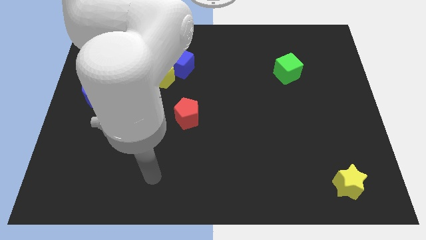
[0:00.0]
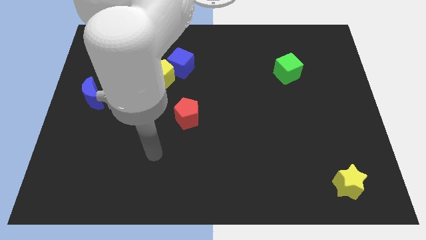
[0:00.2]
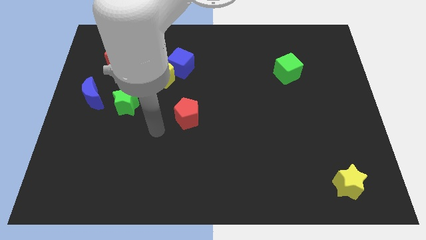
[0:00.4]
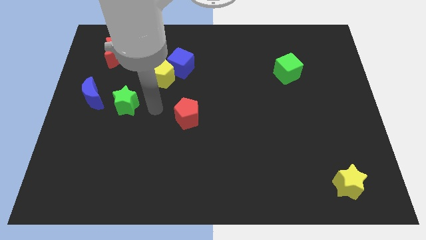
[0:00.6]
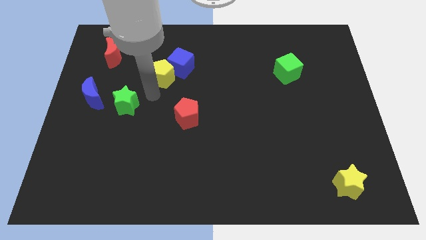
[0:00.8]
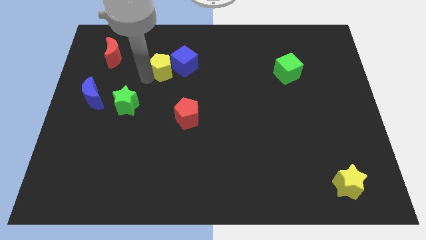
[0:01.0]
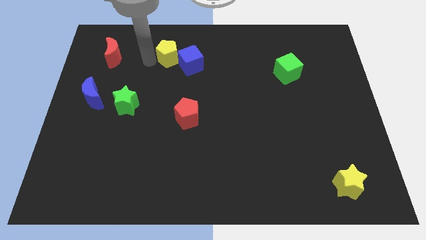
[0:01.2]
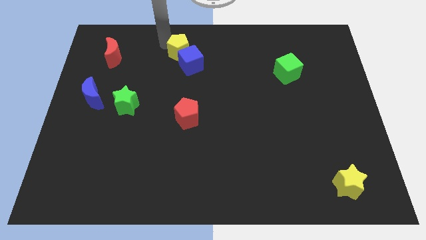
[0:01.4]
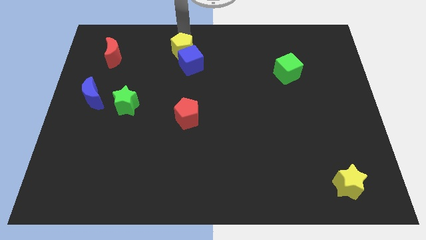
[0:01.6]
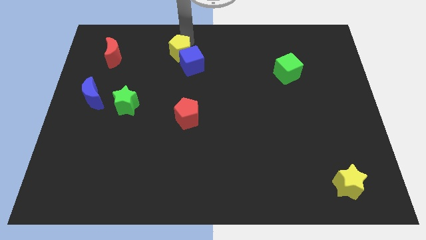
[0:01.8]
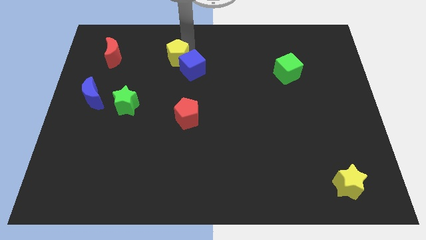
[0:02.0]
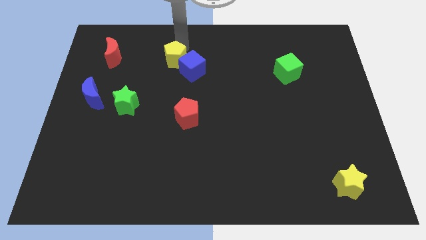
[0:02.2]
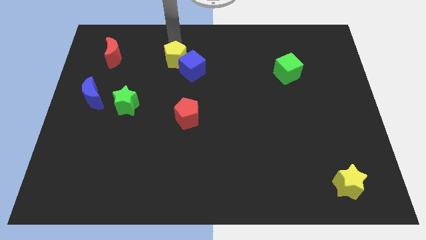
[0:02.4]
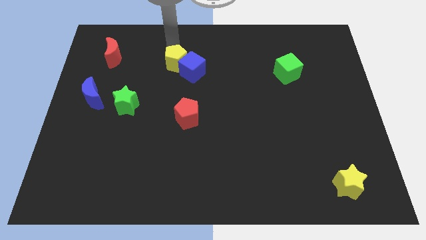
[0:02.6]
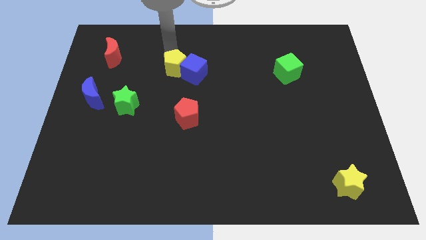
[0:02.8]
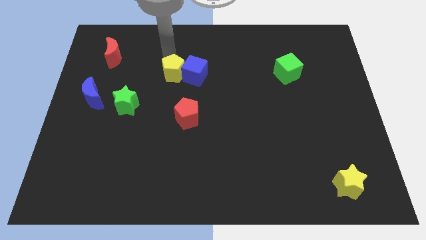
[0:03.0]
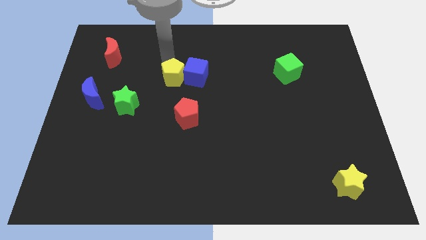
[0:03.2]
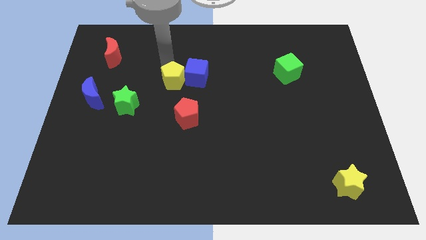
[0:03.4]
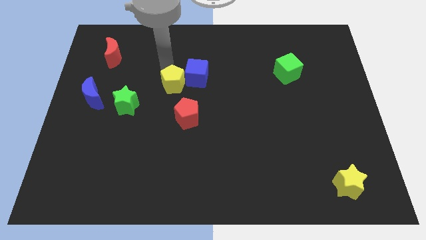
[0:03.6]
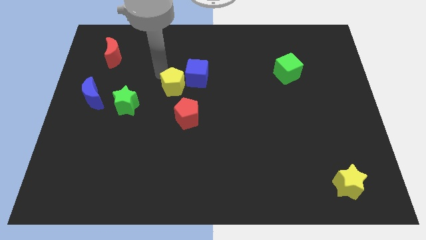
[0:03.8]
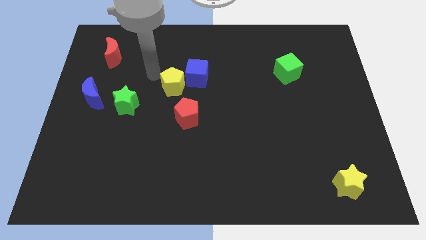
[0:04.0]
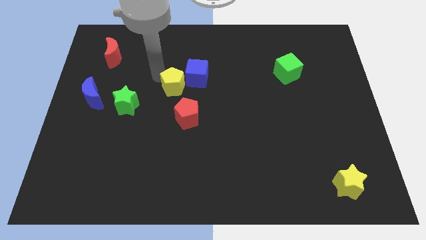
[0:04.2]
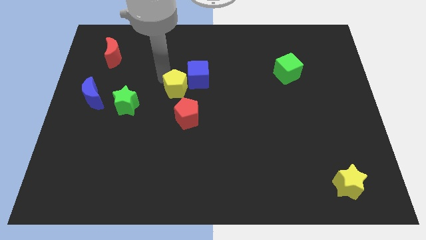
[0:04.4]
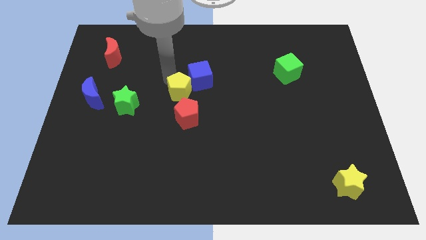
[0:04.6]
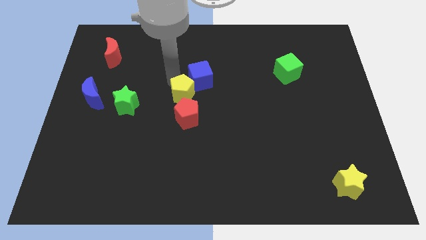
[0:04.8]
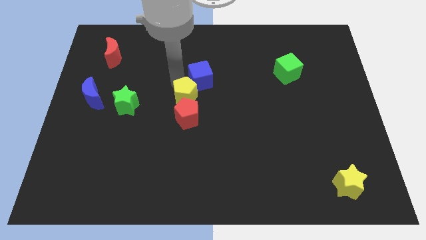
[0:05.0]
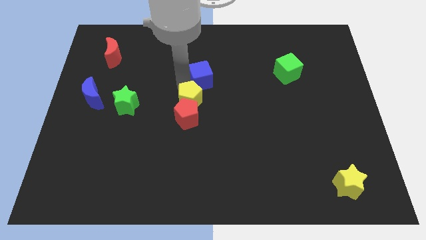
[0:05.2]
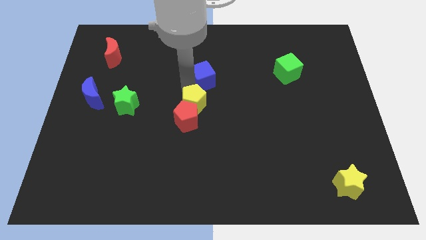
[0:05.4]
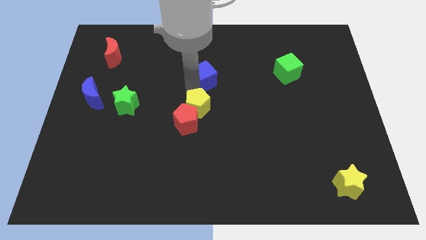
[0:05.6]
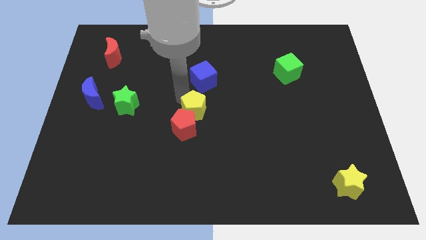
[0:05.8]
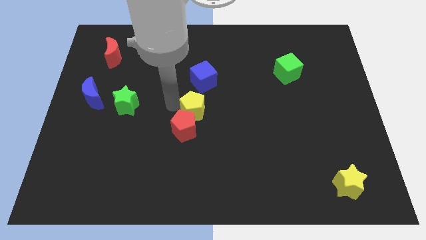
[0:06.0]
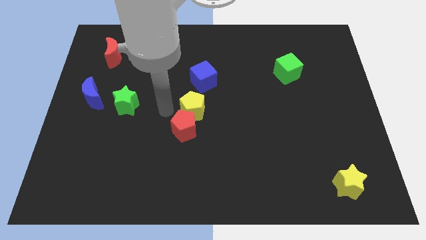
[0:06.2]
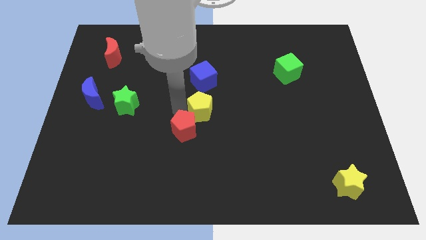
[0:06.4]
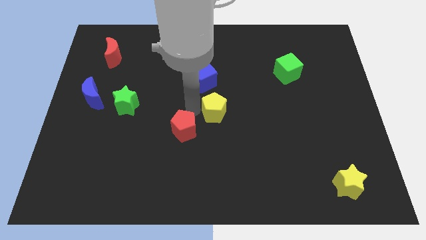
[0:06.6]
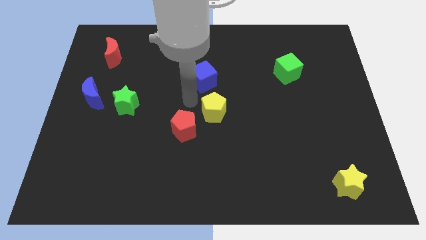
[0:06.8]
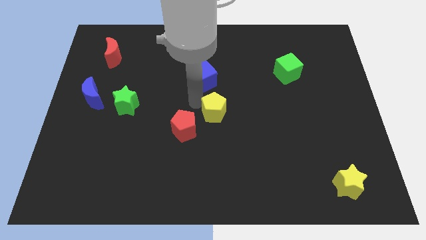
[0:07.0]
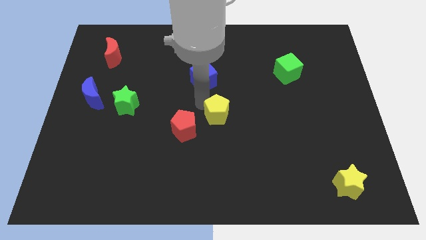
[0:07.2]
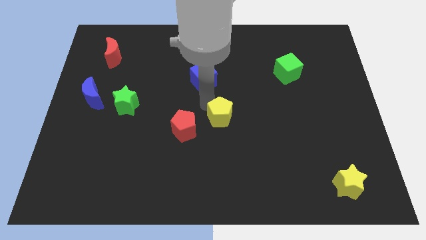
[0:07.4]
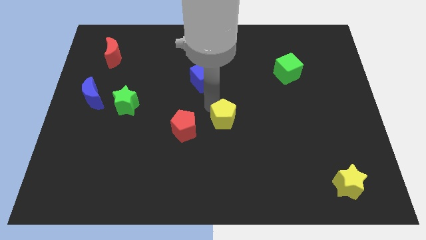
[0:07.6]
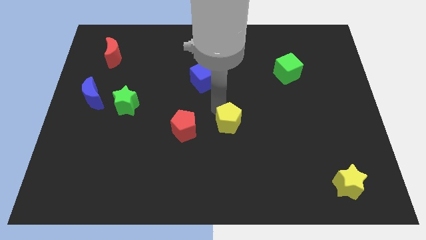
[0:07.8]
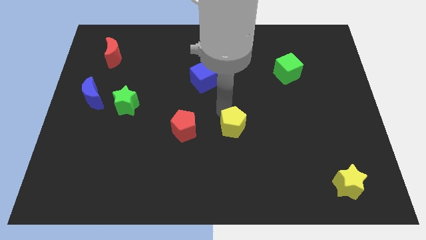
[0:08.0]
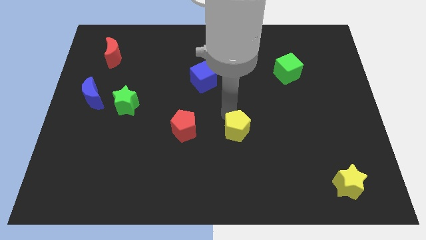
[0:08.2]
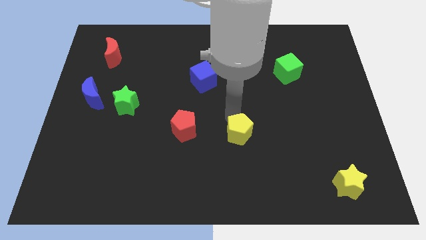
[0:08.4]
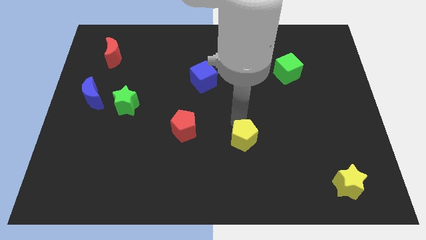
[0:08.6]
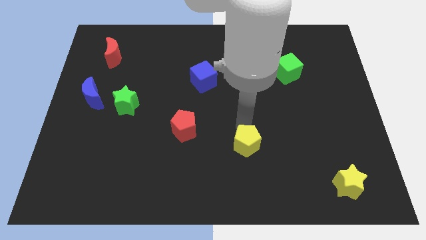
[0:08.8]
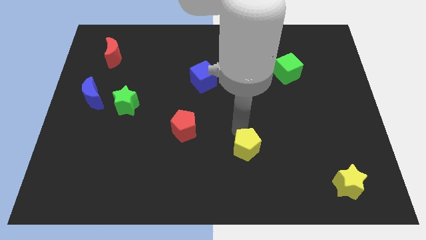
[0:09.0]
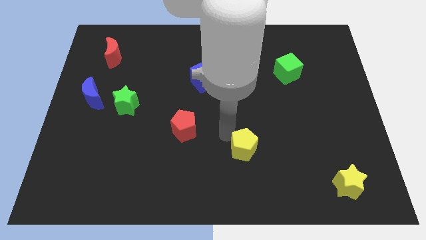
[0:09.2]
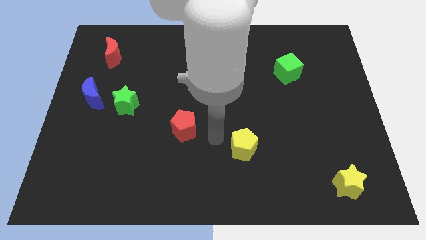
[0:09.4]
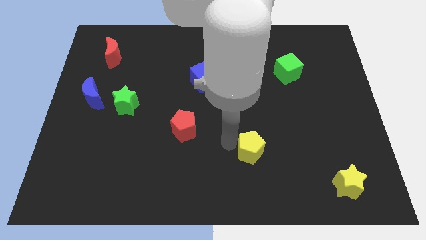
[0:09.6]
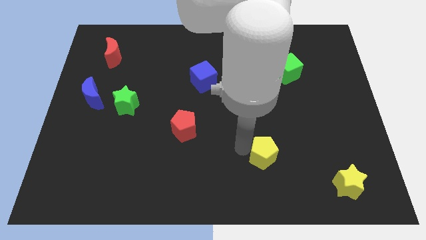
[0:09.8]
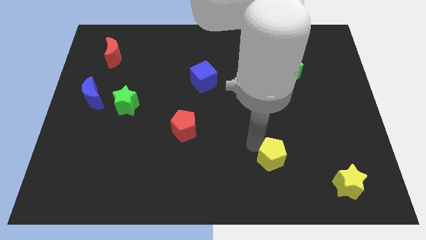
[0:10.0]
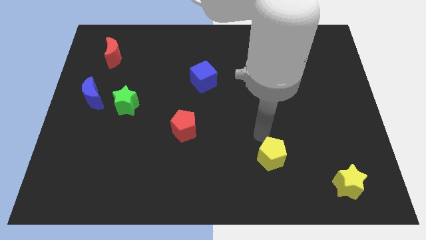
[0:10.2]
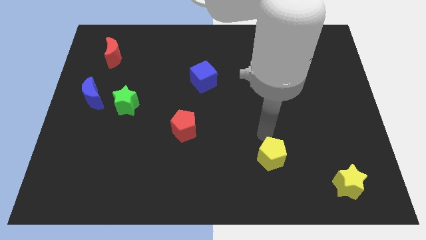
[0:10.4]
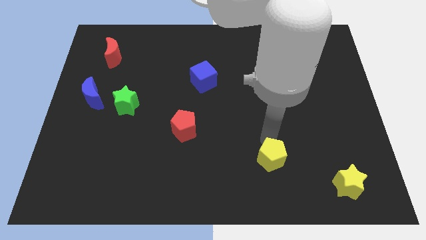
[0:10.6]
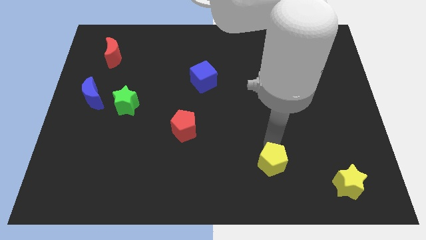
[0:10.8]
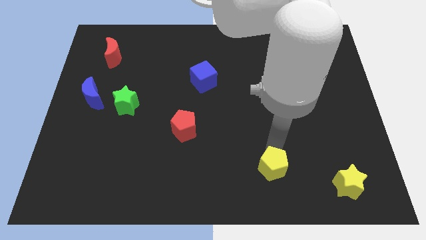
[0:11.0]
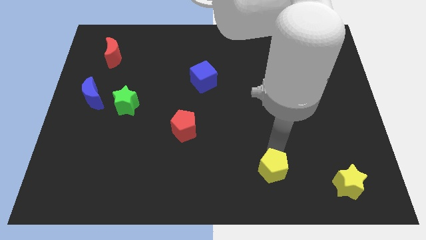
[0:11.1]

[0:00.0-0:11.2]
put the yellow pentagon left of the yellow star

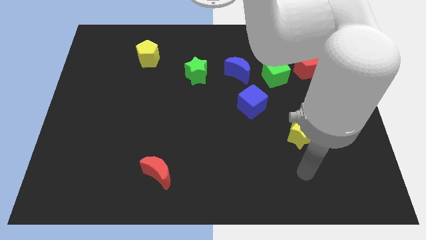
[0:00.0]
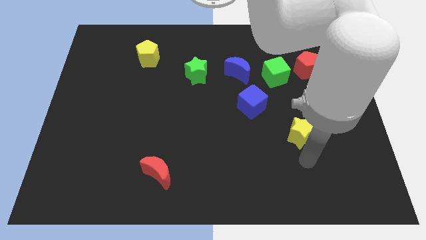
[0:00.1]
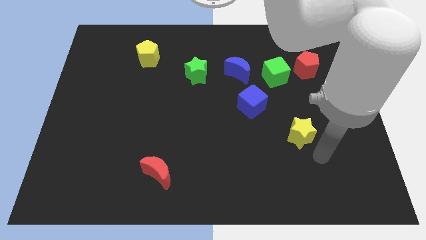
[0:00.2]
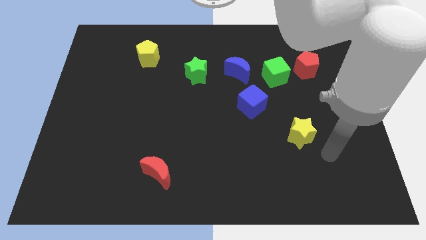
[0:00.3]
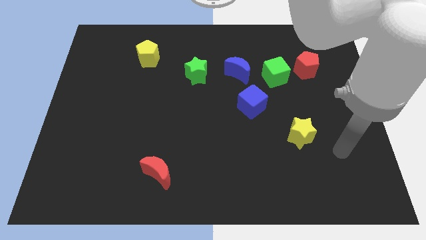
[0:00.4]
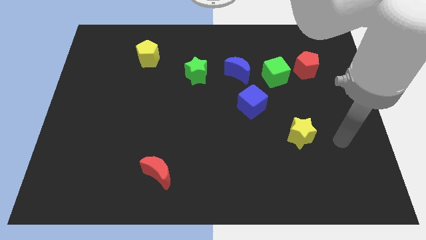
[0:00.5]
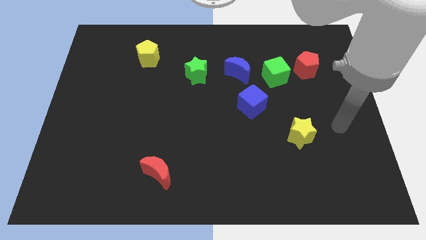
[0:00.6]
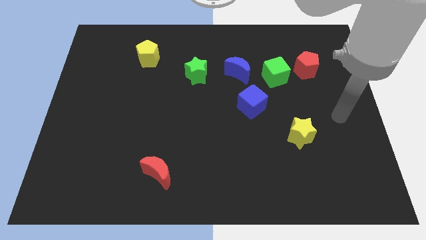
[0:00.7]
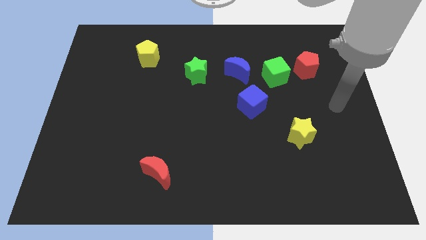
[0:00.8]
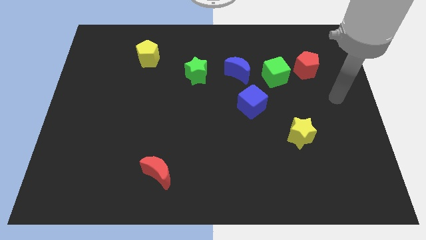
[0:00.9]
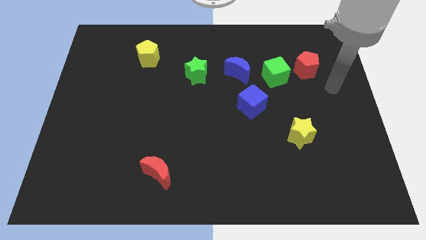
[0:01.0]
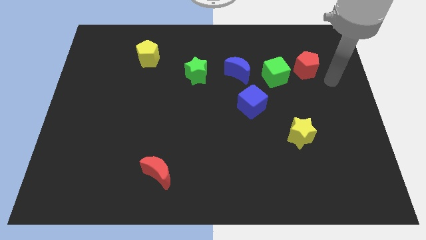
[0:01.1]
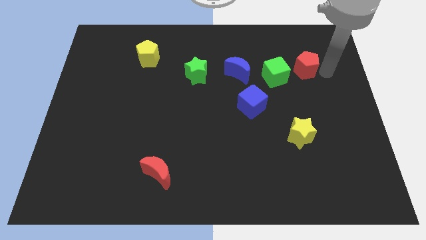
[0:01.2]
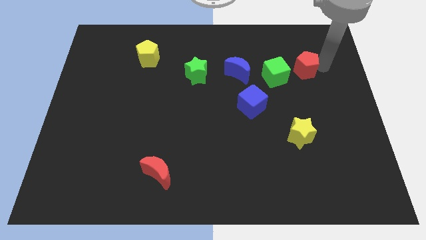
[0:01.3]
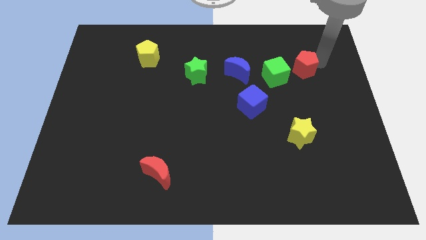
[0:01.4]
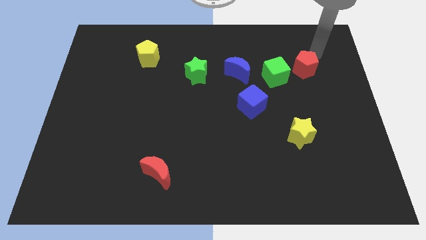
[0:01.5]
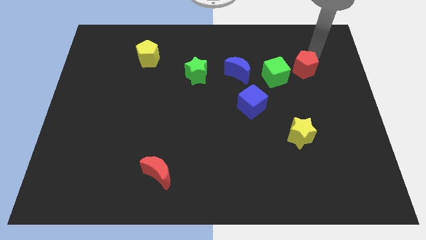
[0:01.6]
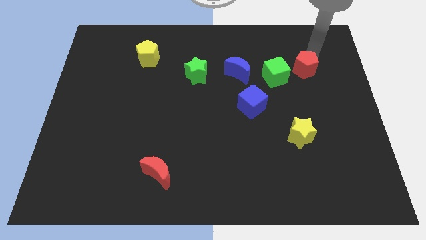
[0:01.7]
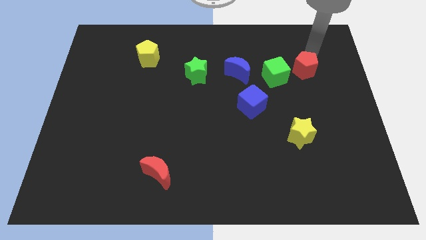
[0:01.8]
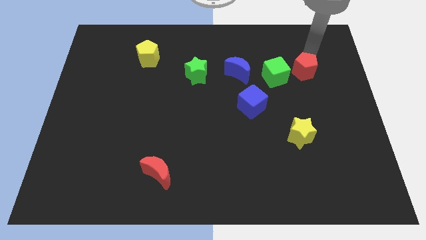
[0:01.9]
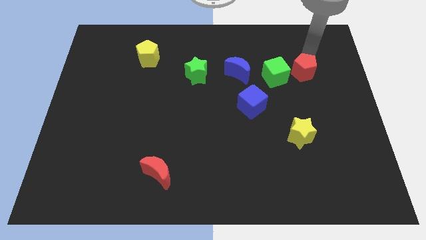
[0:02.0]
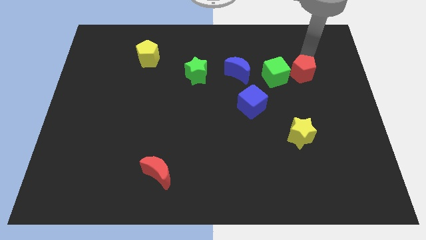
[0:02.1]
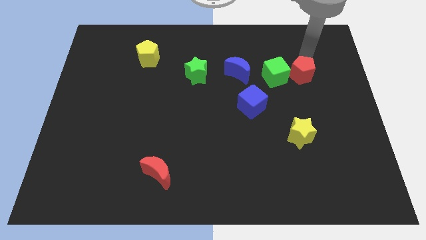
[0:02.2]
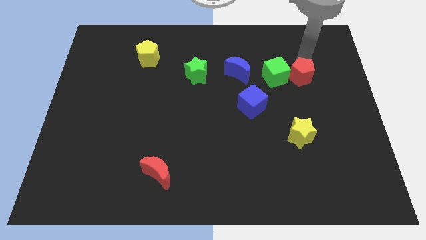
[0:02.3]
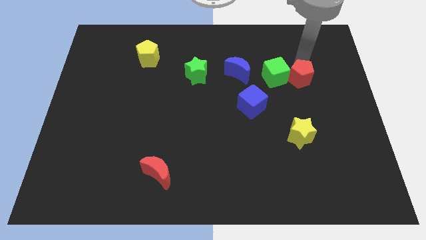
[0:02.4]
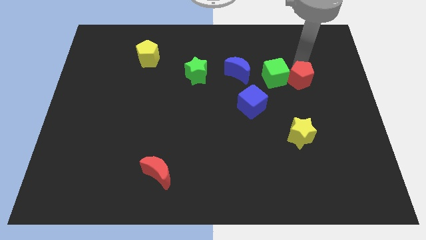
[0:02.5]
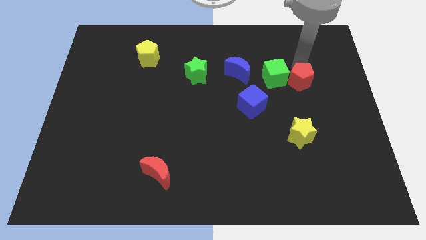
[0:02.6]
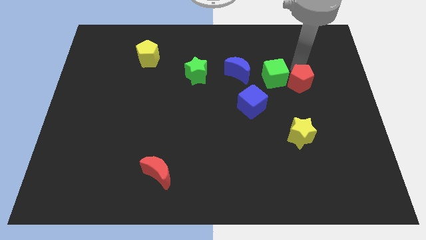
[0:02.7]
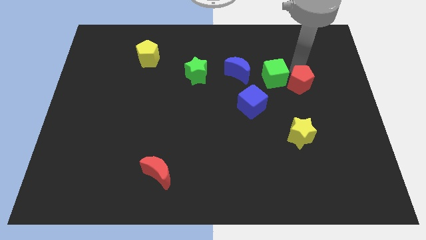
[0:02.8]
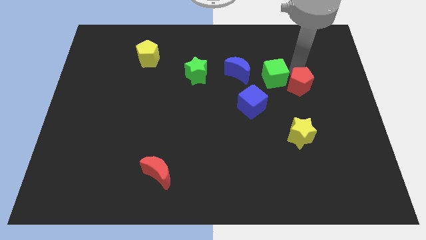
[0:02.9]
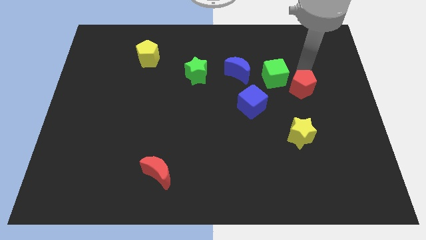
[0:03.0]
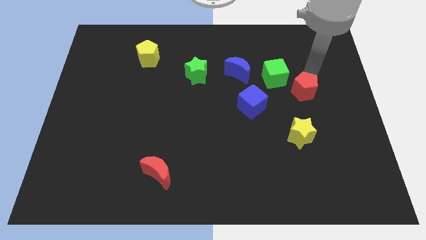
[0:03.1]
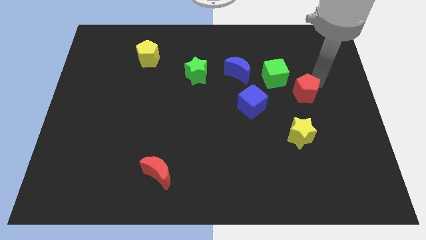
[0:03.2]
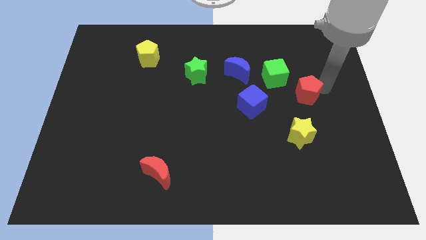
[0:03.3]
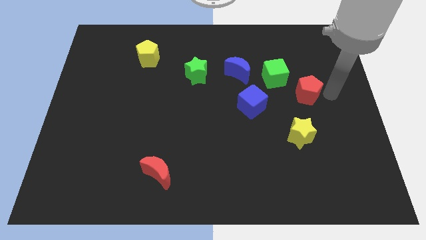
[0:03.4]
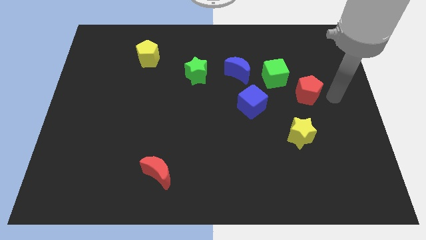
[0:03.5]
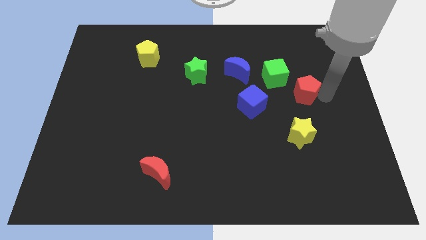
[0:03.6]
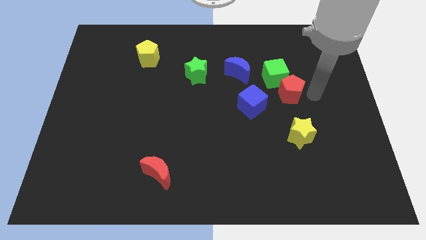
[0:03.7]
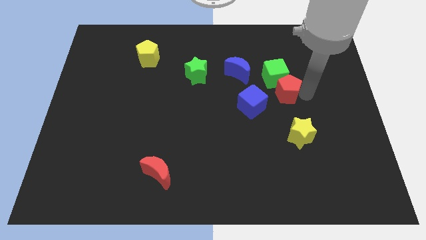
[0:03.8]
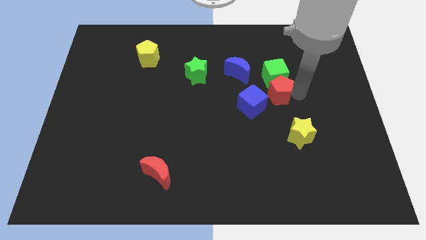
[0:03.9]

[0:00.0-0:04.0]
put the red pentagon to the bottom right of the blue moon
